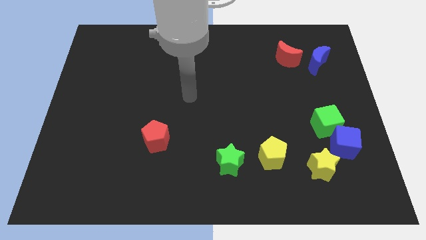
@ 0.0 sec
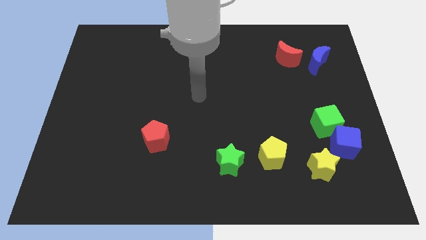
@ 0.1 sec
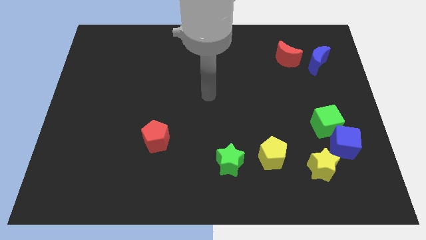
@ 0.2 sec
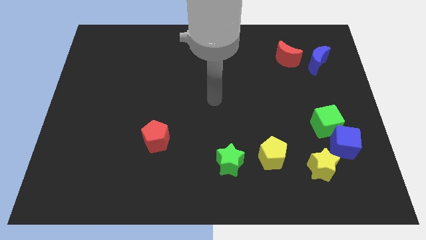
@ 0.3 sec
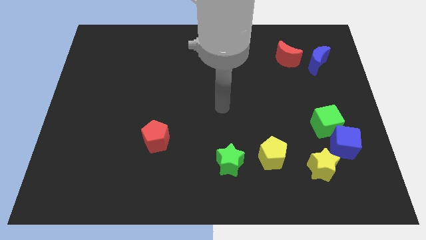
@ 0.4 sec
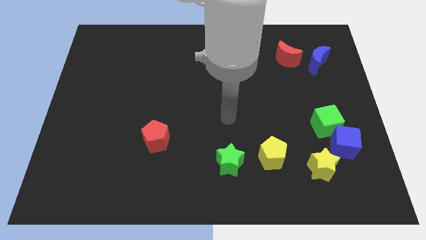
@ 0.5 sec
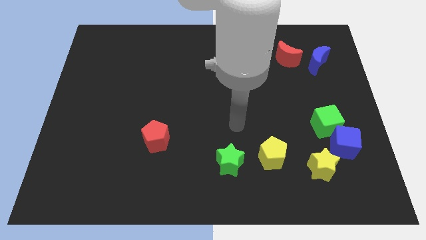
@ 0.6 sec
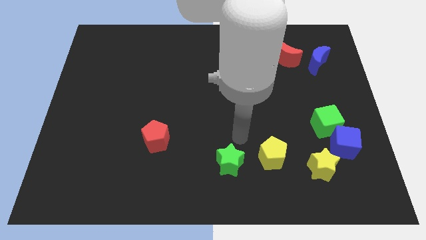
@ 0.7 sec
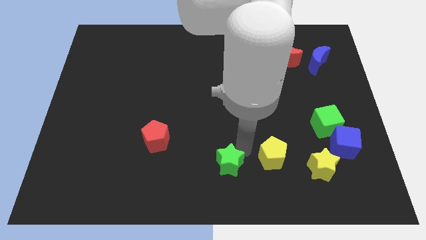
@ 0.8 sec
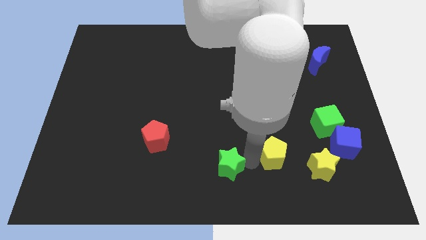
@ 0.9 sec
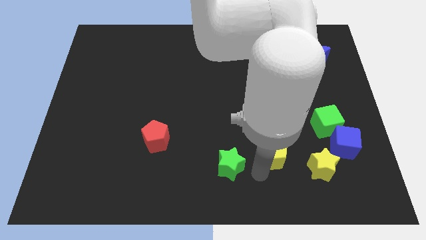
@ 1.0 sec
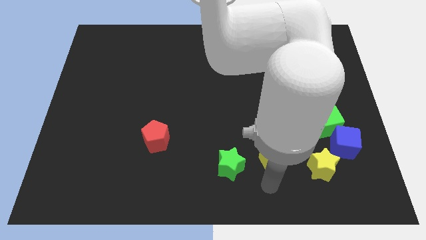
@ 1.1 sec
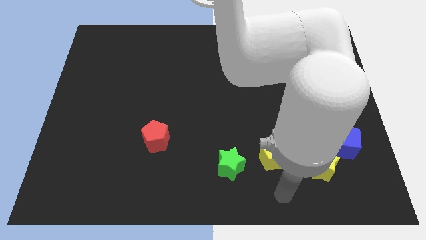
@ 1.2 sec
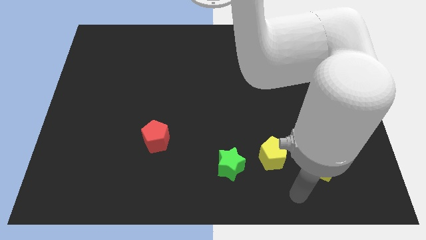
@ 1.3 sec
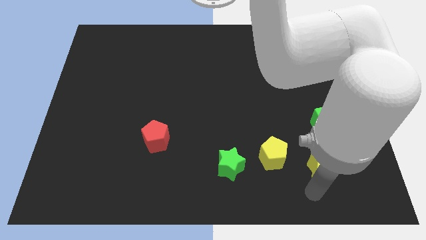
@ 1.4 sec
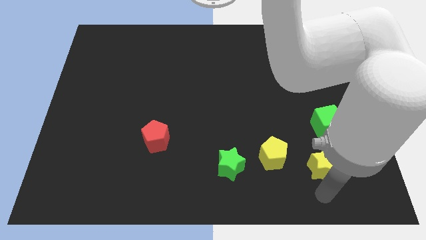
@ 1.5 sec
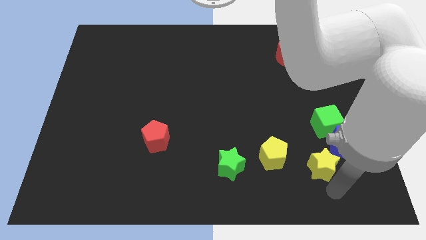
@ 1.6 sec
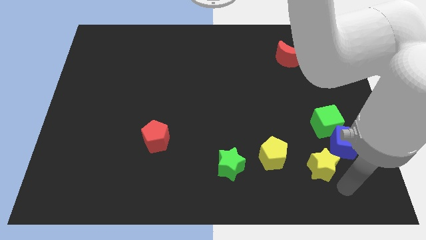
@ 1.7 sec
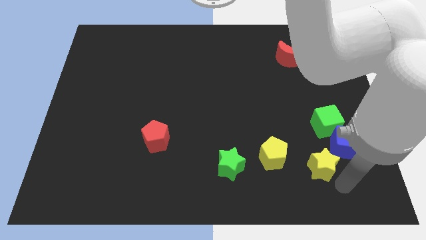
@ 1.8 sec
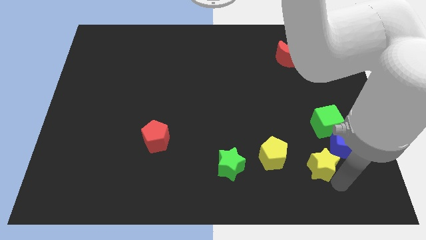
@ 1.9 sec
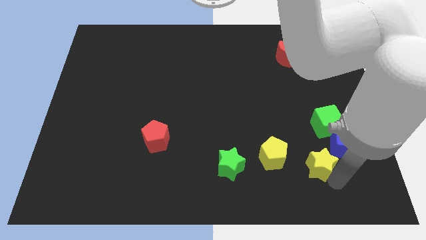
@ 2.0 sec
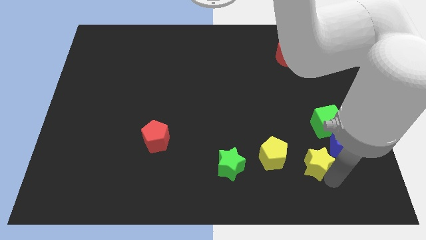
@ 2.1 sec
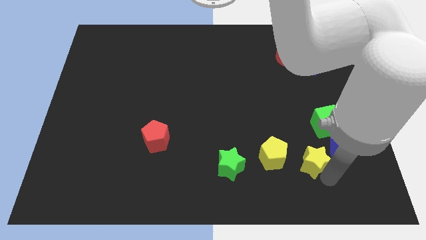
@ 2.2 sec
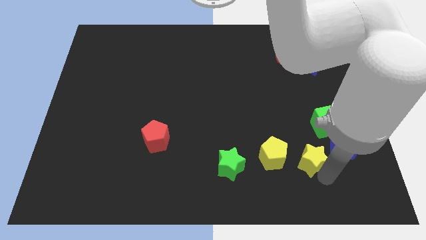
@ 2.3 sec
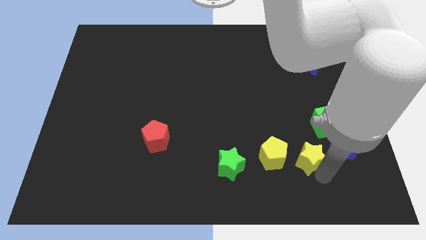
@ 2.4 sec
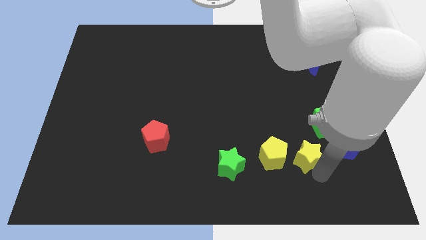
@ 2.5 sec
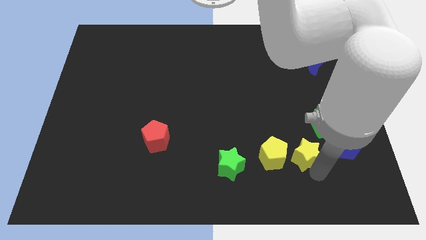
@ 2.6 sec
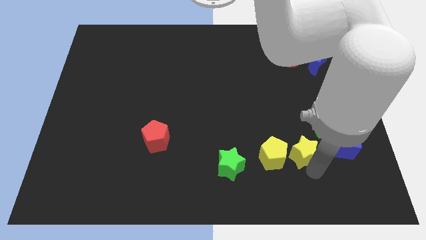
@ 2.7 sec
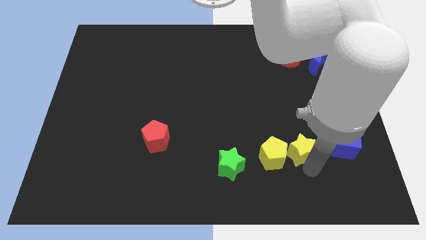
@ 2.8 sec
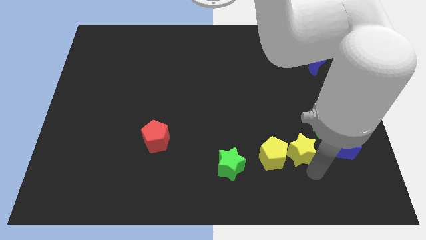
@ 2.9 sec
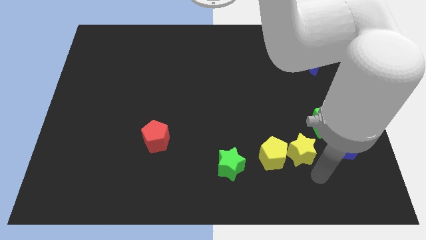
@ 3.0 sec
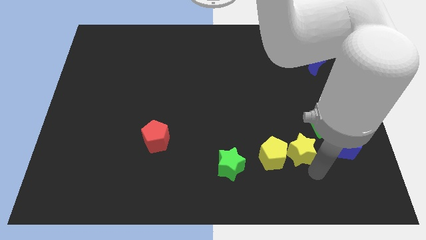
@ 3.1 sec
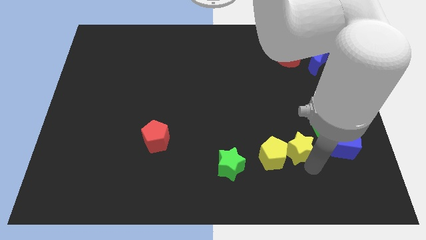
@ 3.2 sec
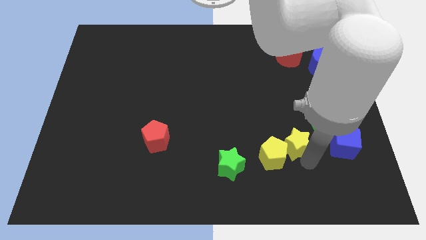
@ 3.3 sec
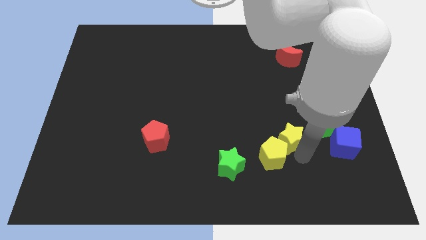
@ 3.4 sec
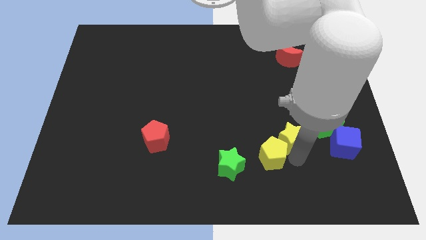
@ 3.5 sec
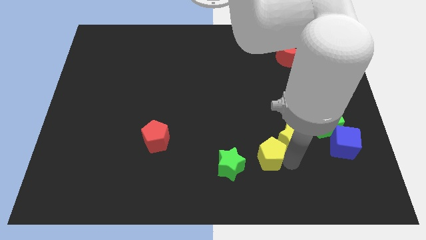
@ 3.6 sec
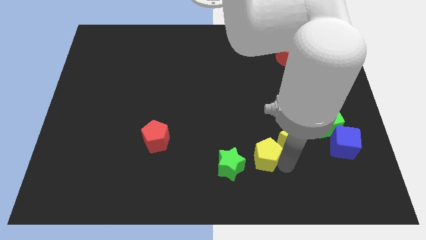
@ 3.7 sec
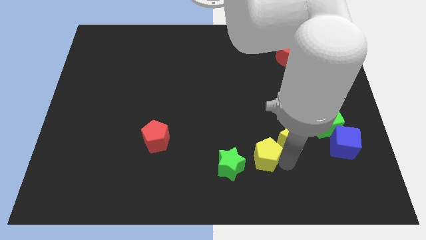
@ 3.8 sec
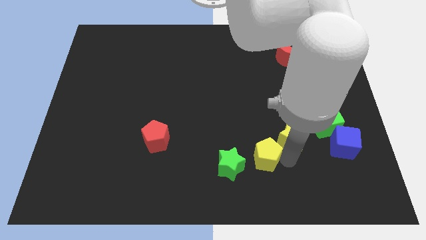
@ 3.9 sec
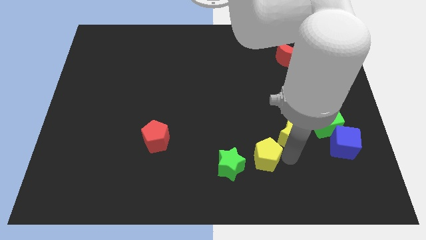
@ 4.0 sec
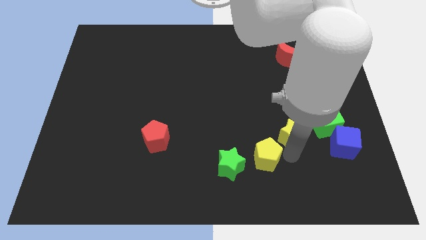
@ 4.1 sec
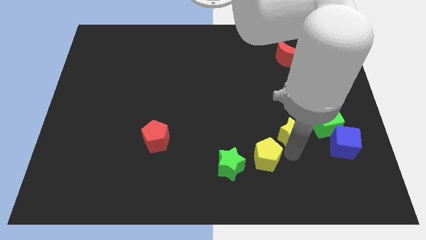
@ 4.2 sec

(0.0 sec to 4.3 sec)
slide the yellow star up somewhat

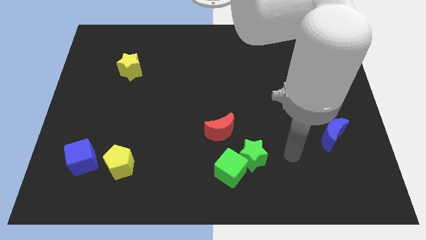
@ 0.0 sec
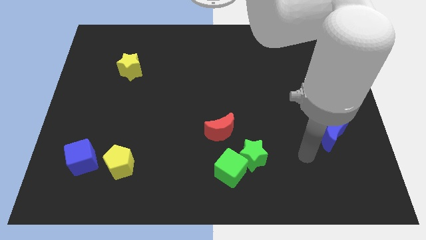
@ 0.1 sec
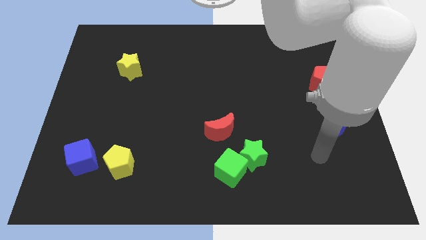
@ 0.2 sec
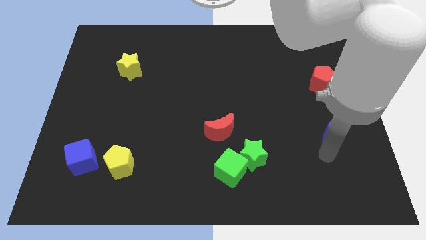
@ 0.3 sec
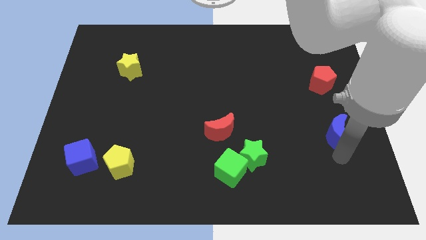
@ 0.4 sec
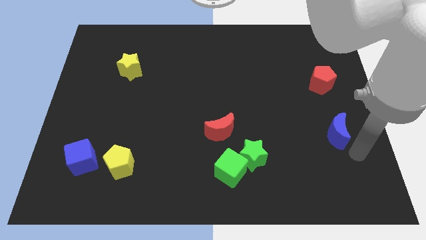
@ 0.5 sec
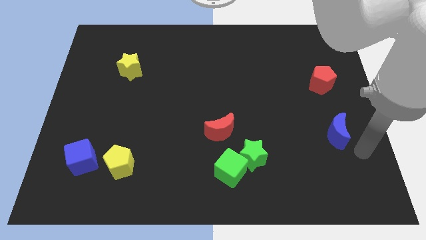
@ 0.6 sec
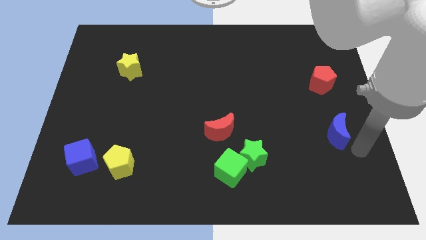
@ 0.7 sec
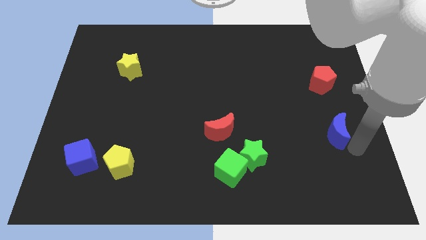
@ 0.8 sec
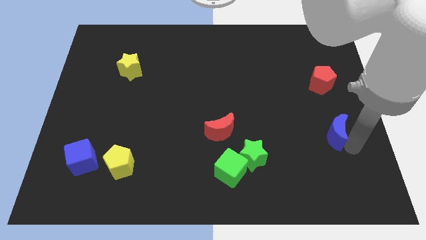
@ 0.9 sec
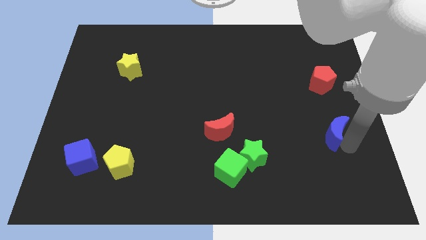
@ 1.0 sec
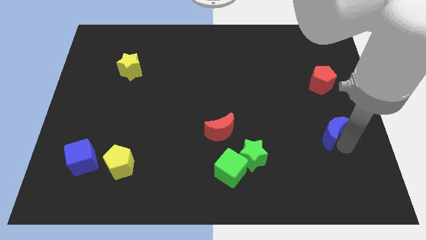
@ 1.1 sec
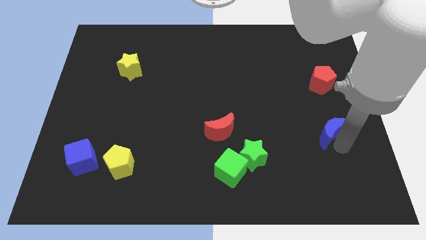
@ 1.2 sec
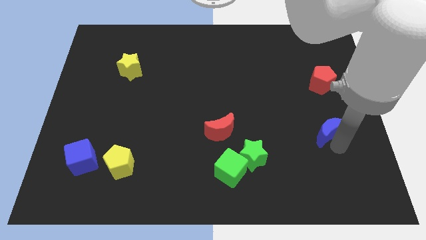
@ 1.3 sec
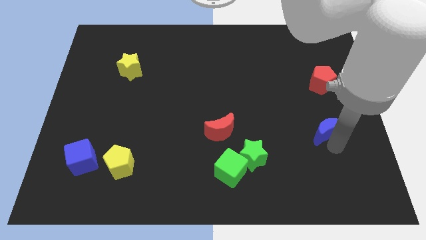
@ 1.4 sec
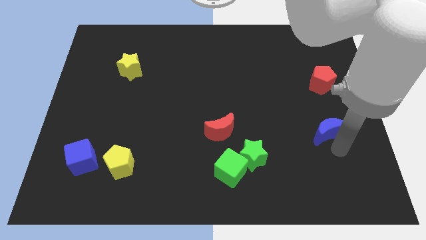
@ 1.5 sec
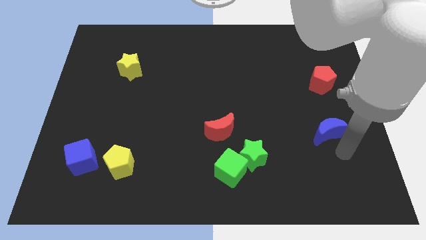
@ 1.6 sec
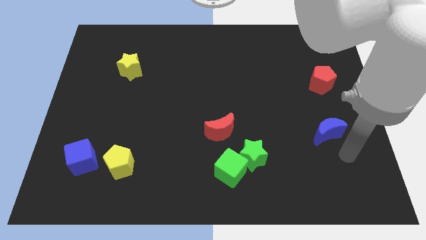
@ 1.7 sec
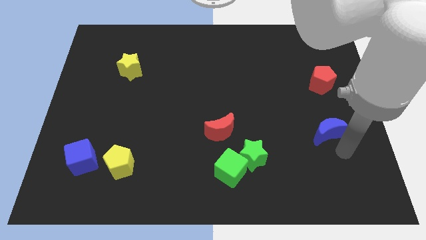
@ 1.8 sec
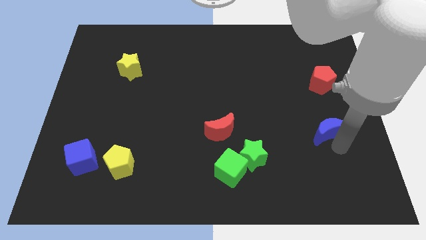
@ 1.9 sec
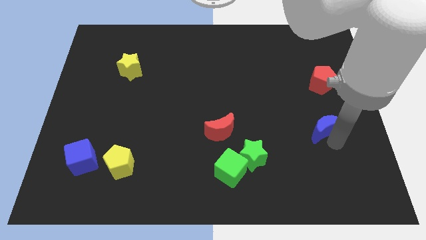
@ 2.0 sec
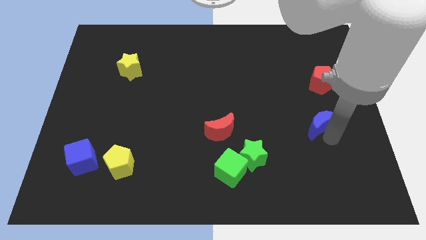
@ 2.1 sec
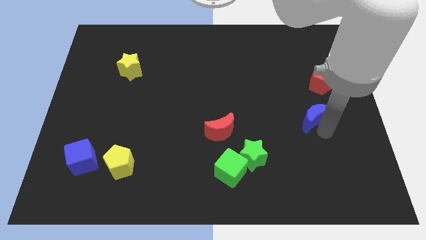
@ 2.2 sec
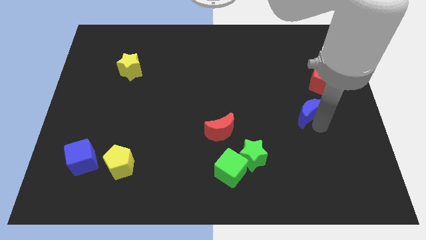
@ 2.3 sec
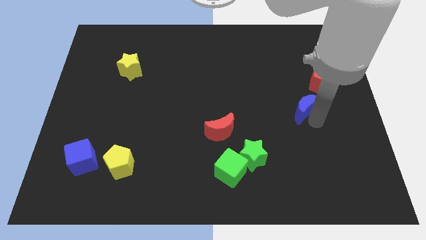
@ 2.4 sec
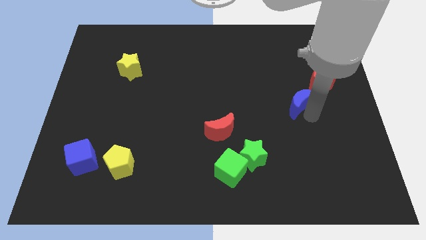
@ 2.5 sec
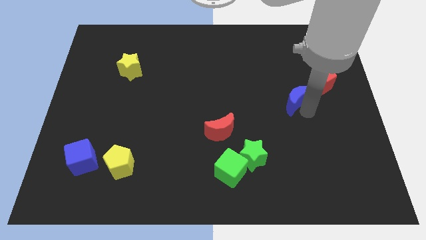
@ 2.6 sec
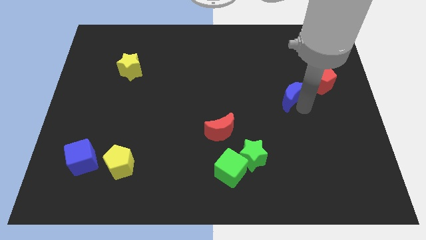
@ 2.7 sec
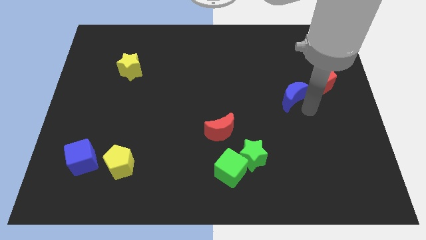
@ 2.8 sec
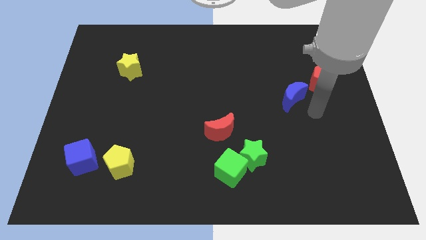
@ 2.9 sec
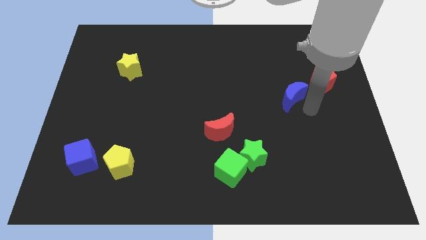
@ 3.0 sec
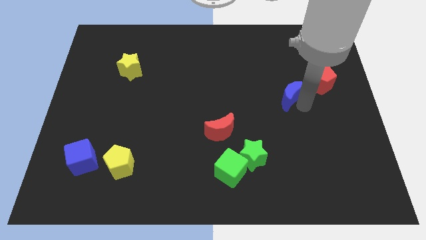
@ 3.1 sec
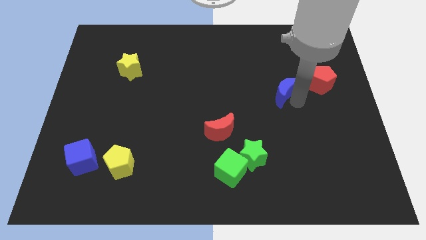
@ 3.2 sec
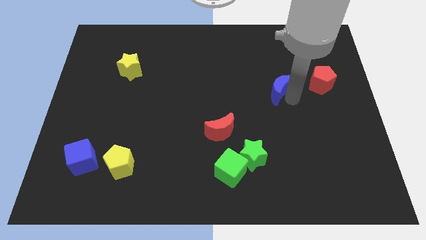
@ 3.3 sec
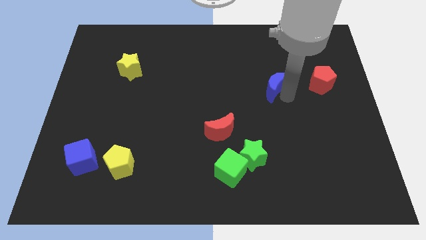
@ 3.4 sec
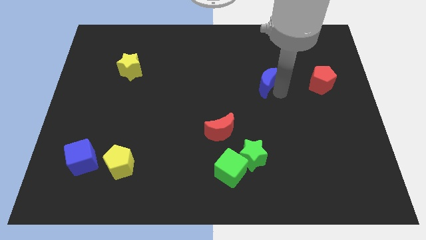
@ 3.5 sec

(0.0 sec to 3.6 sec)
push the blue moon up and to the left diagonally

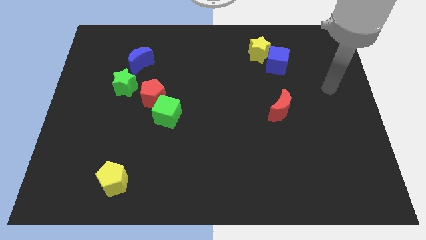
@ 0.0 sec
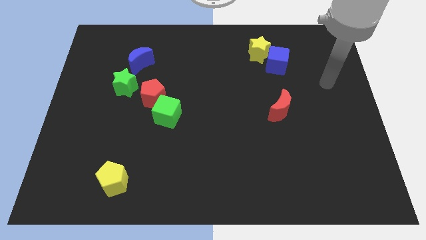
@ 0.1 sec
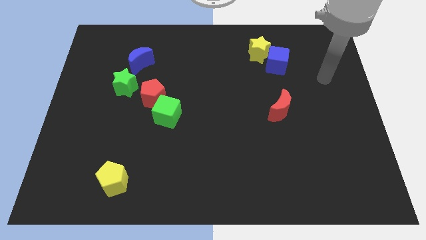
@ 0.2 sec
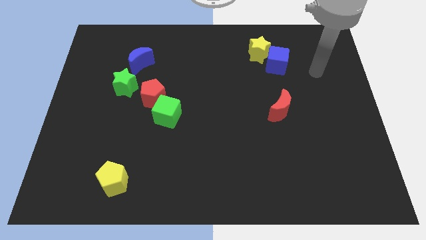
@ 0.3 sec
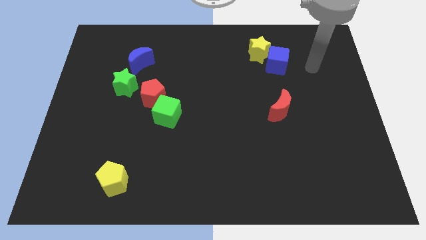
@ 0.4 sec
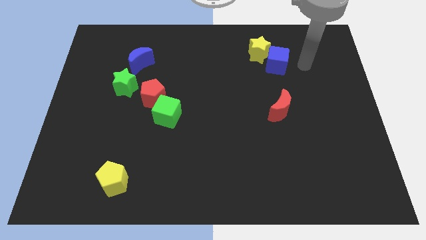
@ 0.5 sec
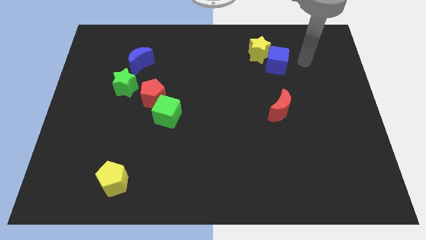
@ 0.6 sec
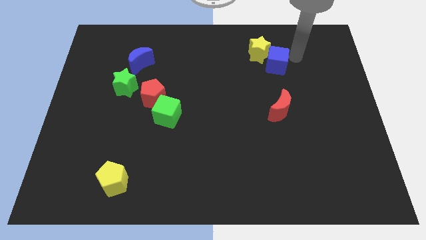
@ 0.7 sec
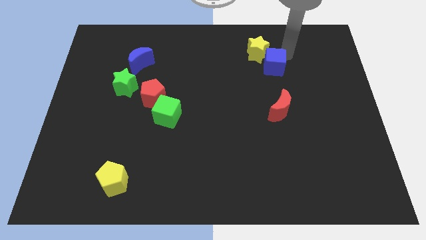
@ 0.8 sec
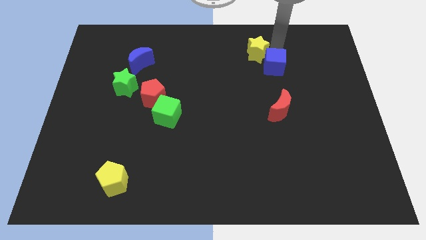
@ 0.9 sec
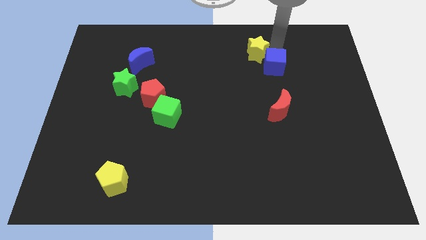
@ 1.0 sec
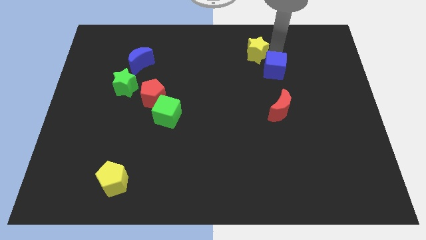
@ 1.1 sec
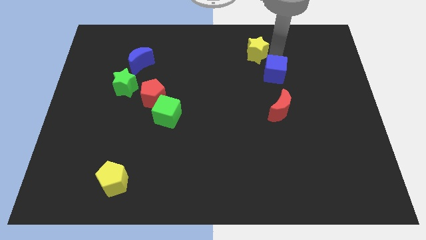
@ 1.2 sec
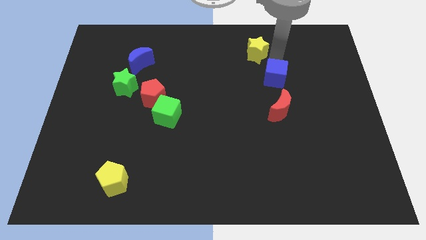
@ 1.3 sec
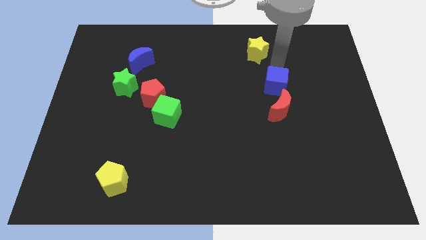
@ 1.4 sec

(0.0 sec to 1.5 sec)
slide the blue cube downwards somewhat
